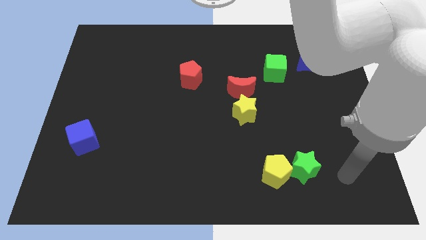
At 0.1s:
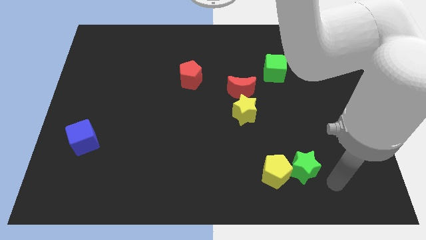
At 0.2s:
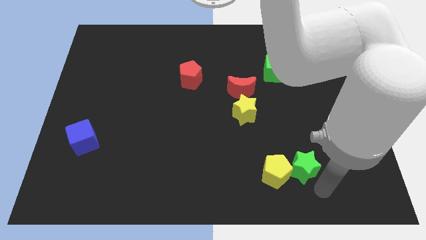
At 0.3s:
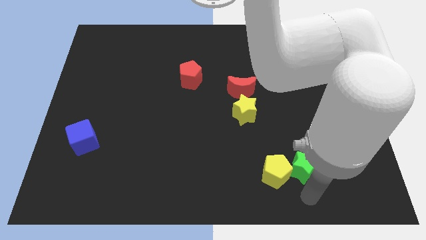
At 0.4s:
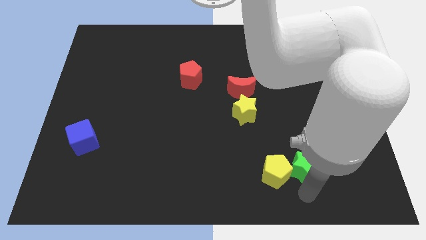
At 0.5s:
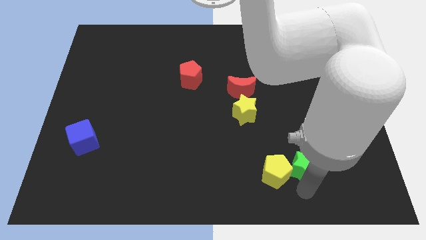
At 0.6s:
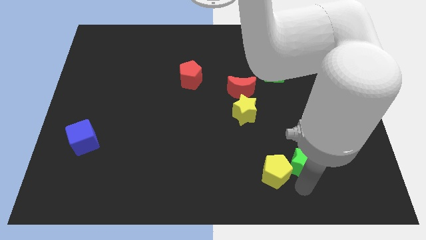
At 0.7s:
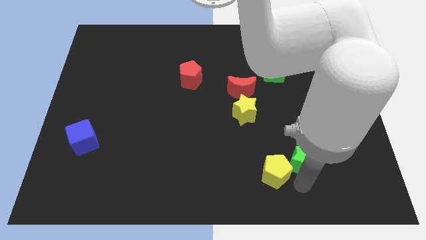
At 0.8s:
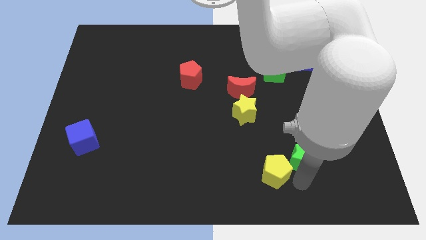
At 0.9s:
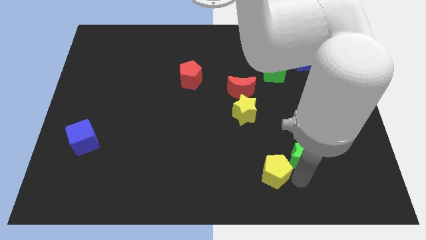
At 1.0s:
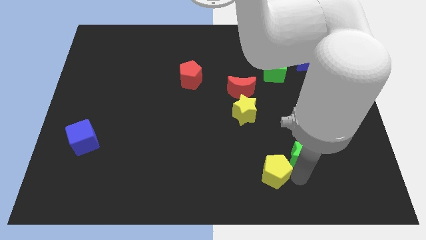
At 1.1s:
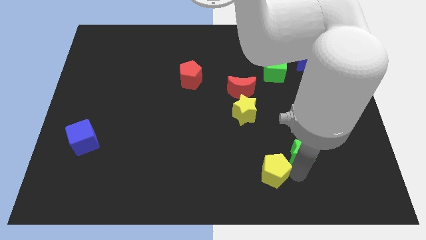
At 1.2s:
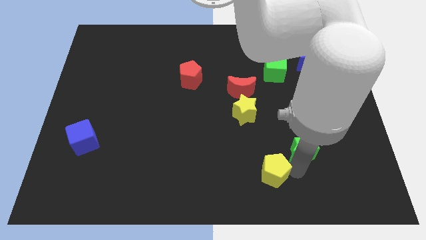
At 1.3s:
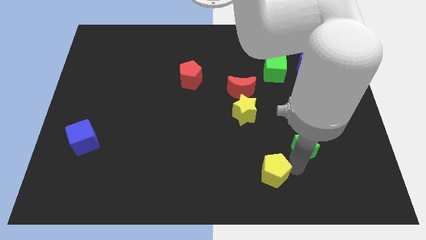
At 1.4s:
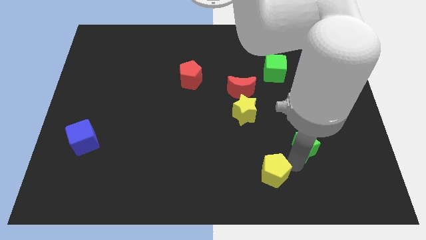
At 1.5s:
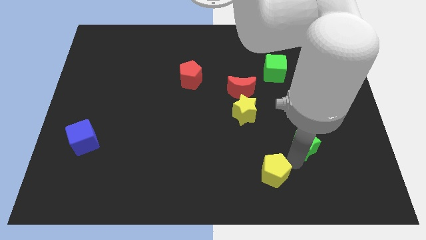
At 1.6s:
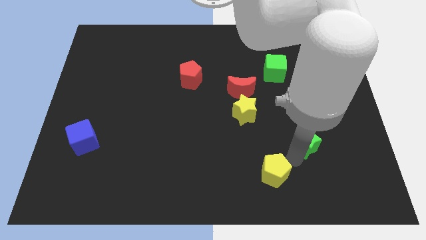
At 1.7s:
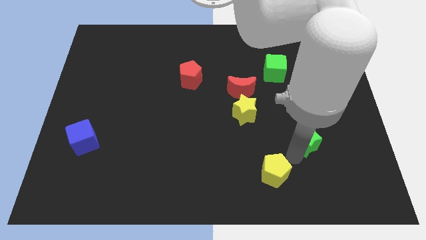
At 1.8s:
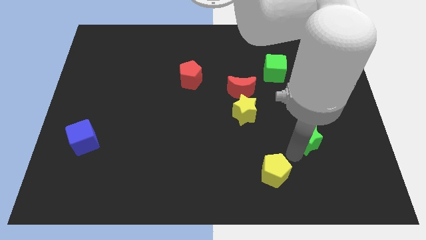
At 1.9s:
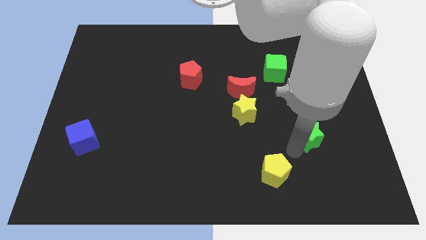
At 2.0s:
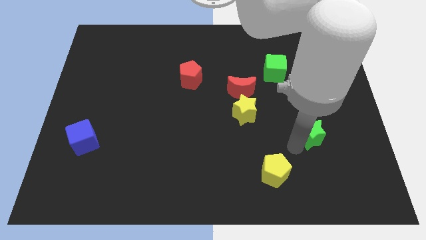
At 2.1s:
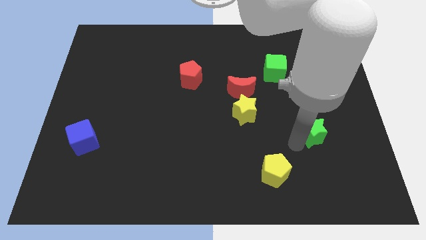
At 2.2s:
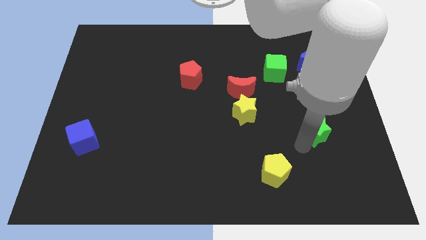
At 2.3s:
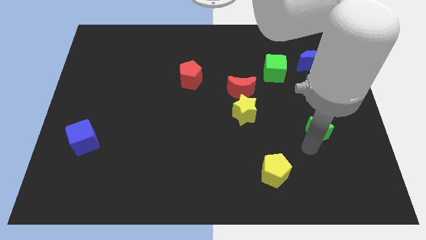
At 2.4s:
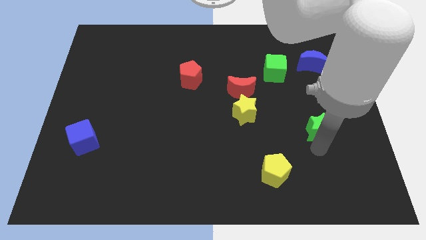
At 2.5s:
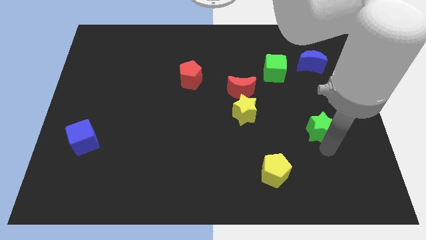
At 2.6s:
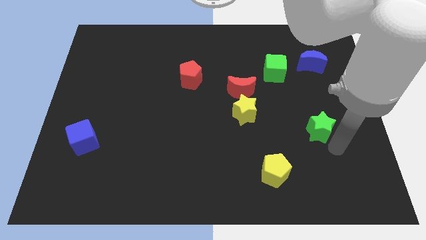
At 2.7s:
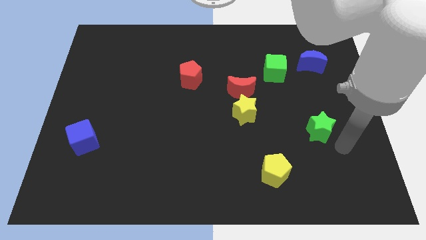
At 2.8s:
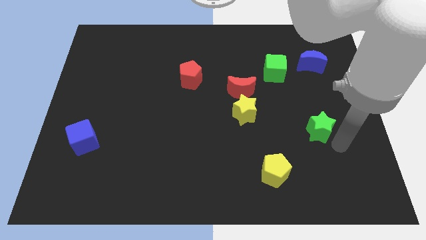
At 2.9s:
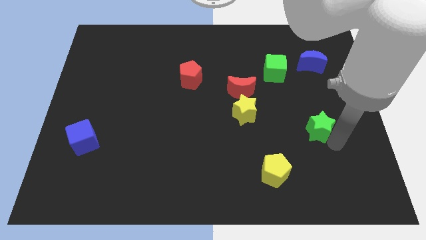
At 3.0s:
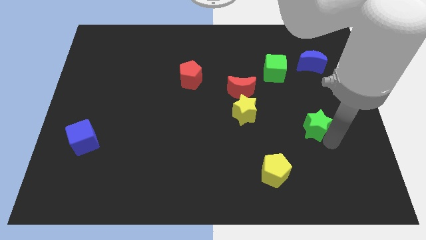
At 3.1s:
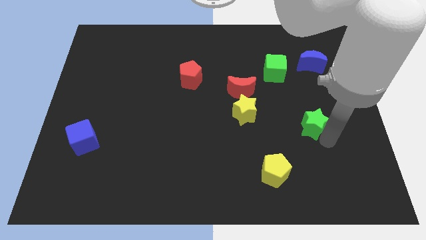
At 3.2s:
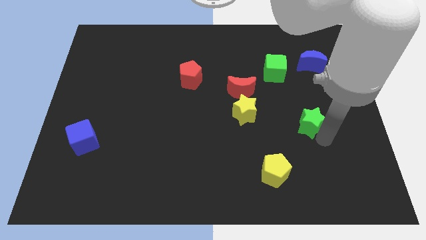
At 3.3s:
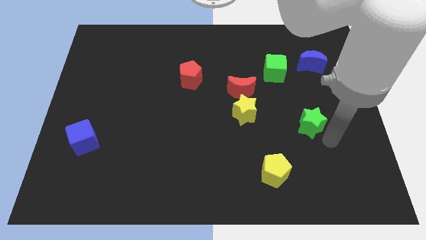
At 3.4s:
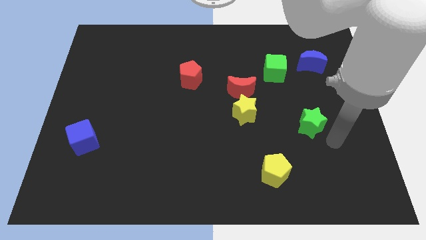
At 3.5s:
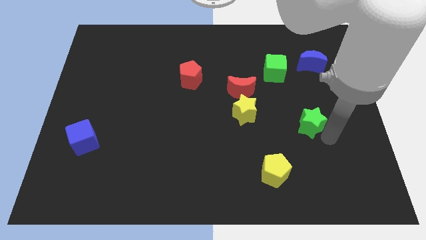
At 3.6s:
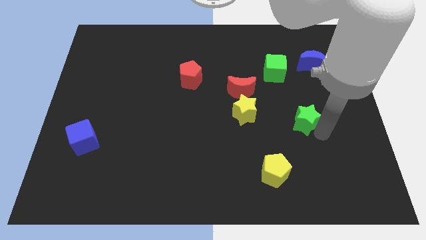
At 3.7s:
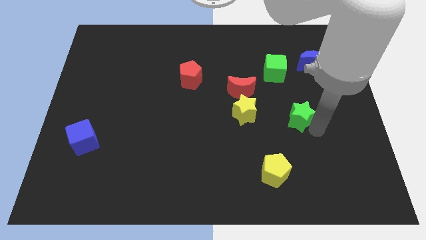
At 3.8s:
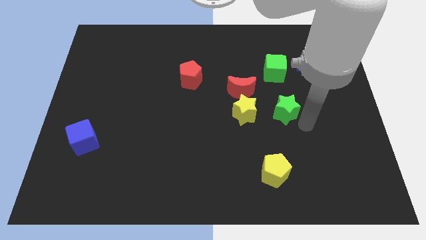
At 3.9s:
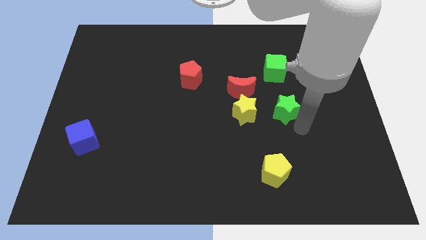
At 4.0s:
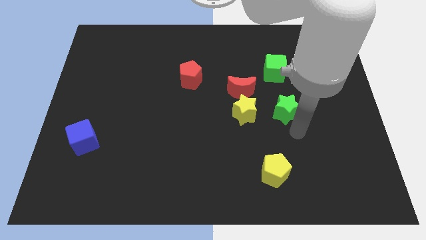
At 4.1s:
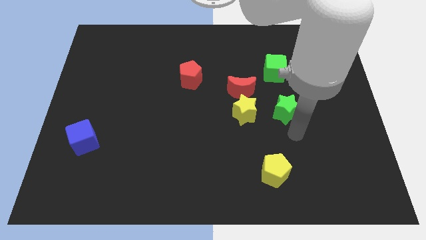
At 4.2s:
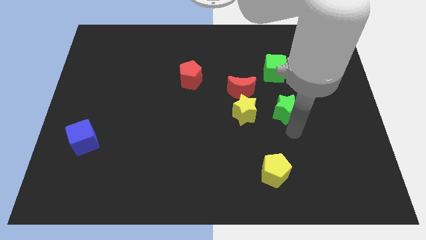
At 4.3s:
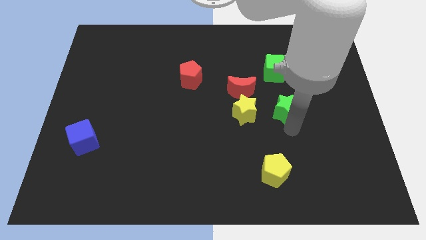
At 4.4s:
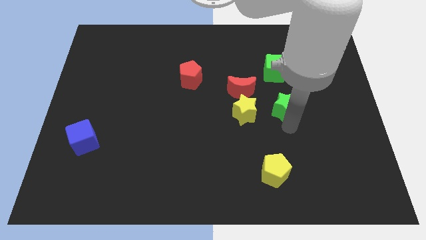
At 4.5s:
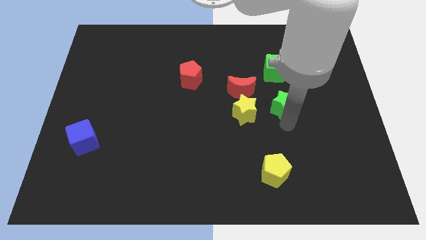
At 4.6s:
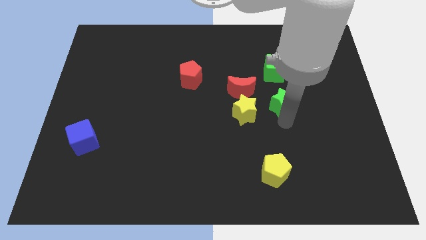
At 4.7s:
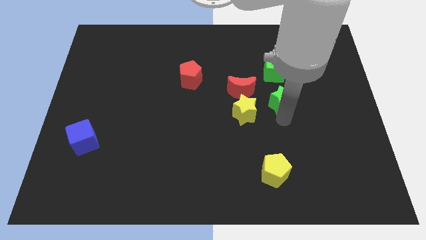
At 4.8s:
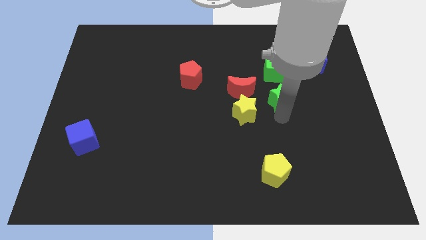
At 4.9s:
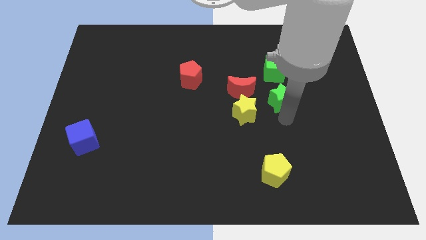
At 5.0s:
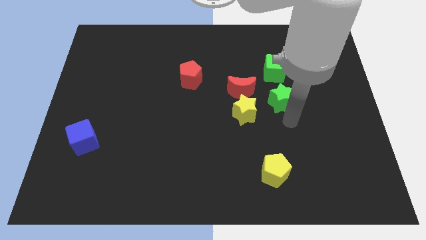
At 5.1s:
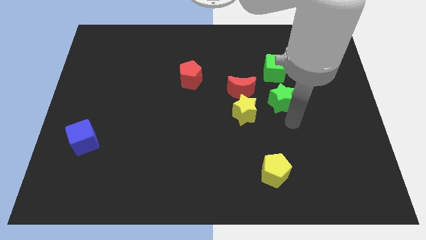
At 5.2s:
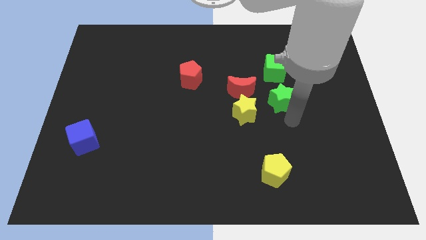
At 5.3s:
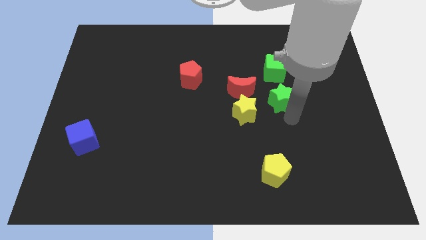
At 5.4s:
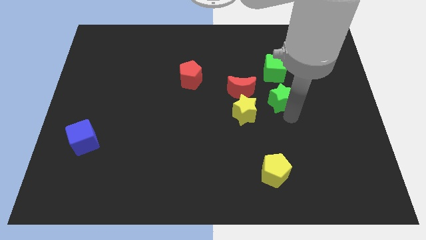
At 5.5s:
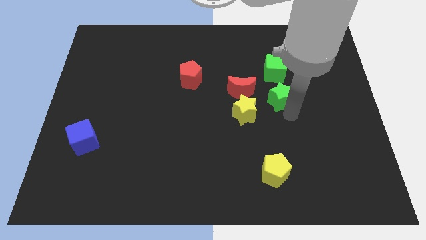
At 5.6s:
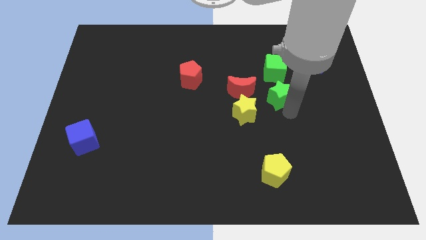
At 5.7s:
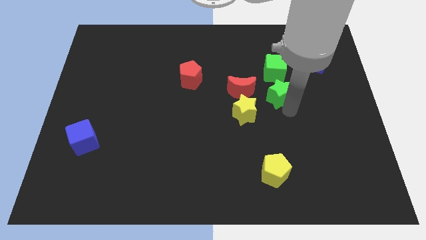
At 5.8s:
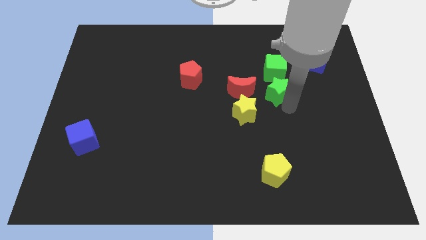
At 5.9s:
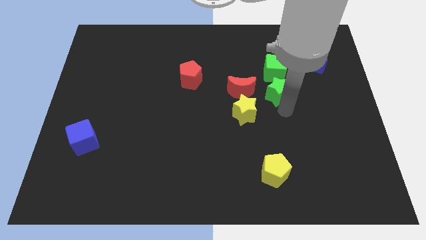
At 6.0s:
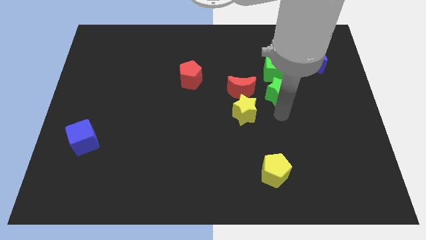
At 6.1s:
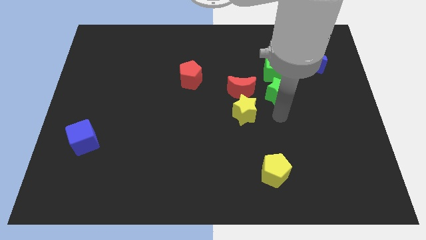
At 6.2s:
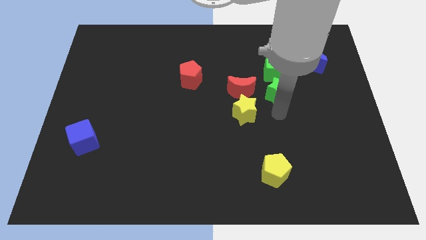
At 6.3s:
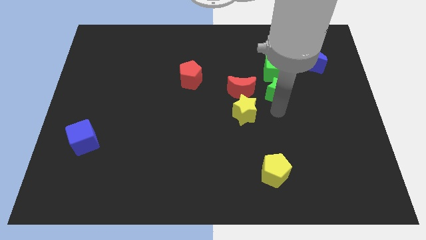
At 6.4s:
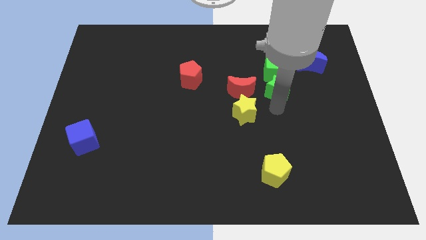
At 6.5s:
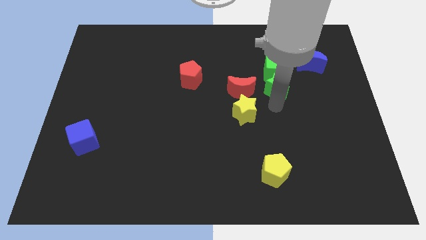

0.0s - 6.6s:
move the green star close to the green cube

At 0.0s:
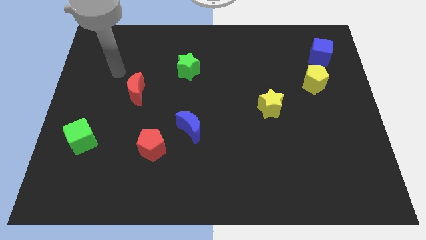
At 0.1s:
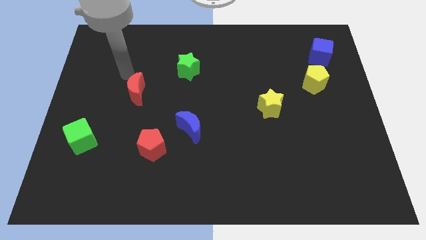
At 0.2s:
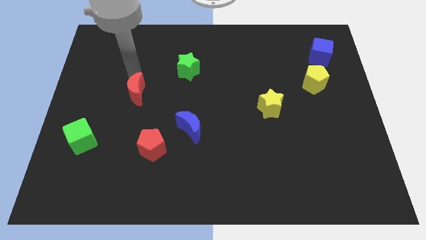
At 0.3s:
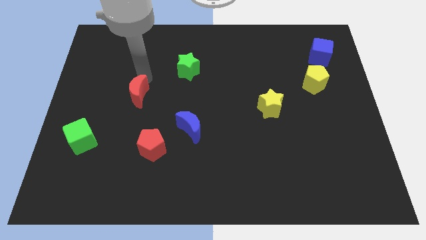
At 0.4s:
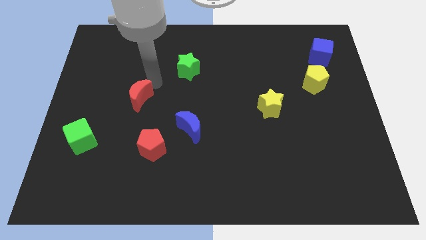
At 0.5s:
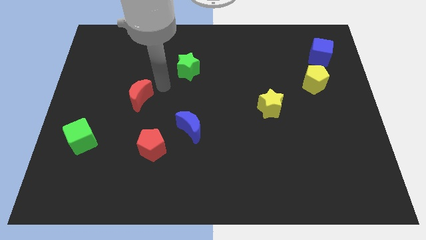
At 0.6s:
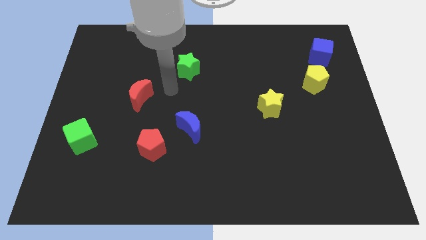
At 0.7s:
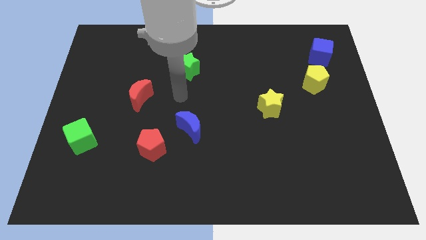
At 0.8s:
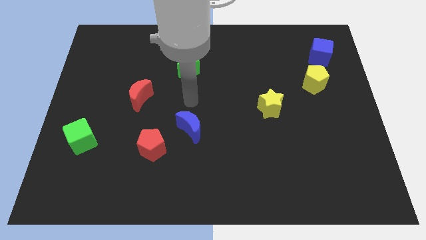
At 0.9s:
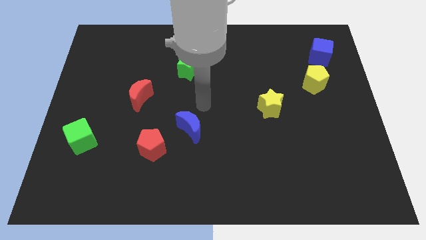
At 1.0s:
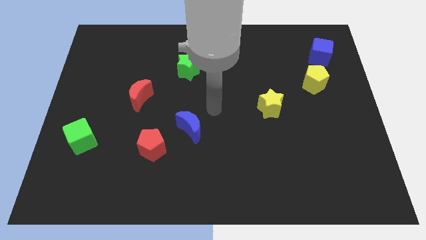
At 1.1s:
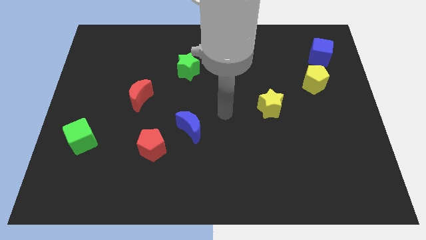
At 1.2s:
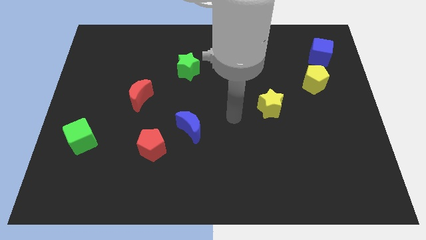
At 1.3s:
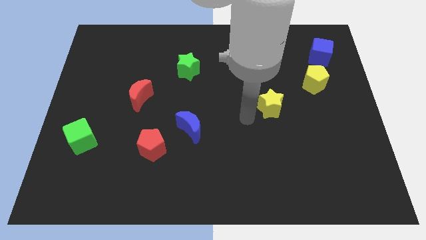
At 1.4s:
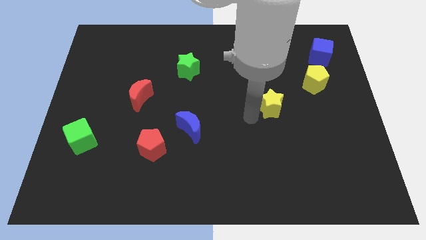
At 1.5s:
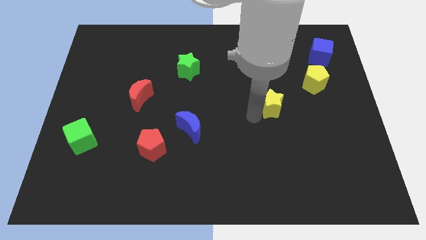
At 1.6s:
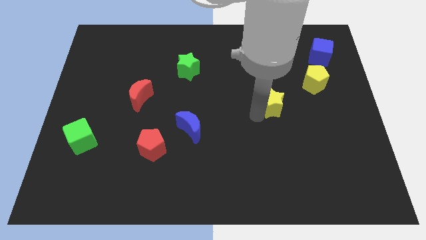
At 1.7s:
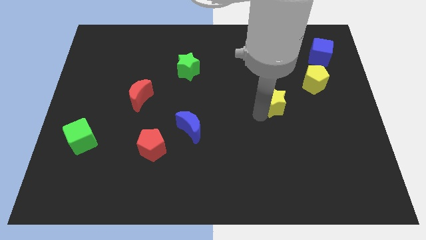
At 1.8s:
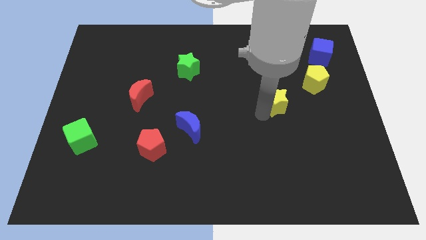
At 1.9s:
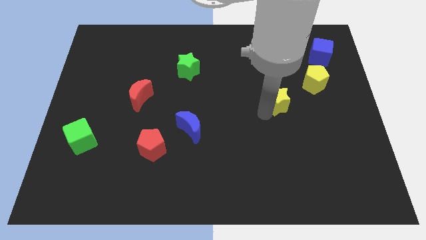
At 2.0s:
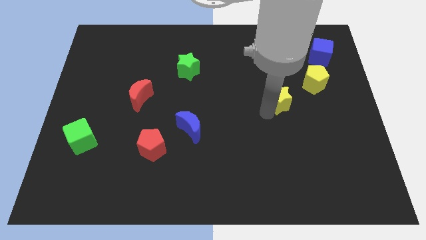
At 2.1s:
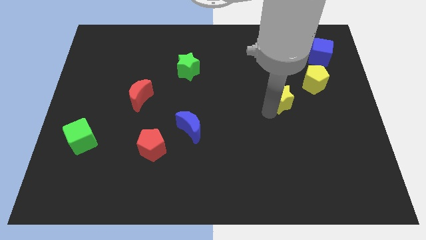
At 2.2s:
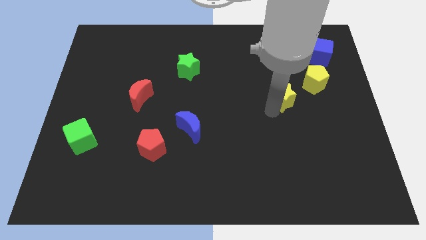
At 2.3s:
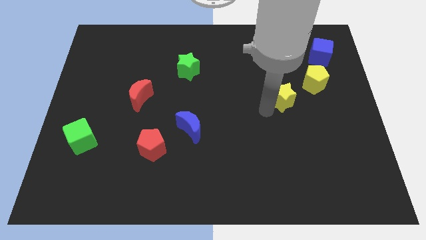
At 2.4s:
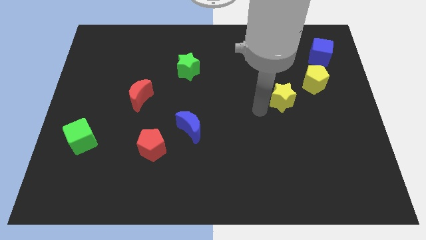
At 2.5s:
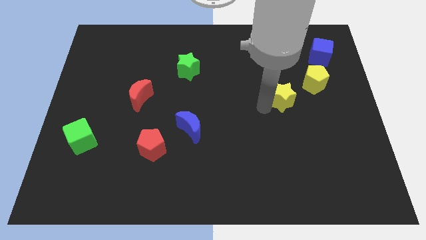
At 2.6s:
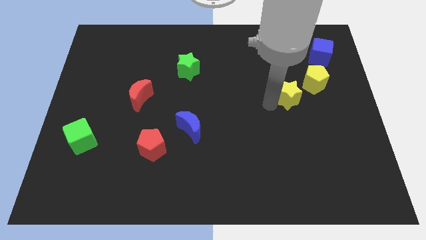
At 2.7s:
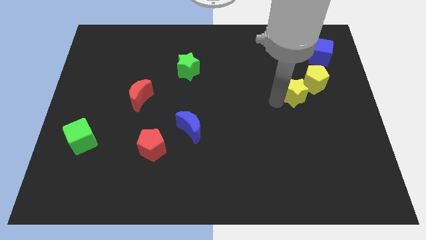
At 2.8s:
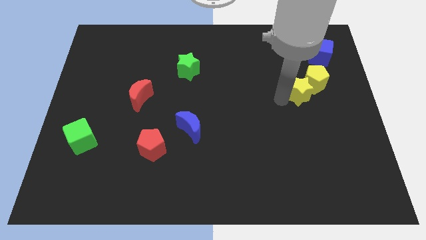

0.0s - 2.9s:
put the yellow star next to the yellow pentagon
